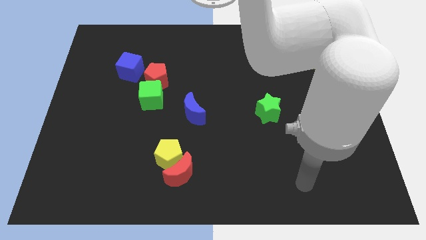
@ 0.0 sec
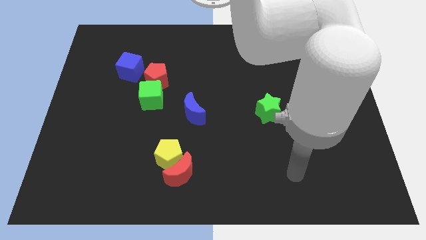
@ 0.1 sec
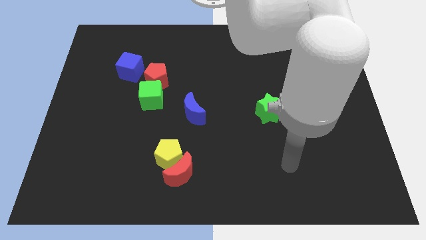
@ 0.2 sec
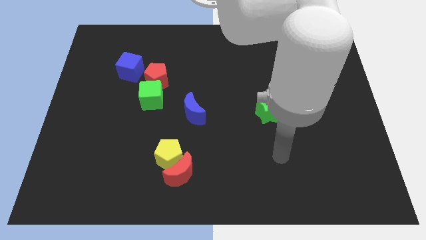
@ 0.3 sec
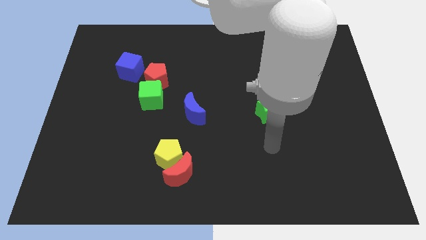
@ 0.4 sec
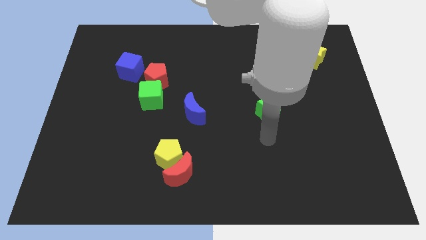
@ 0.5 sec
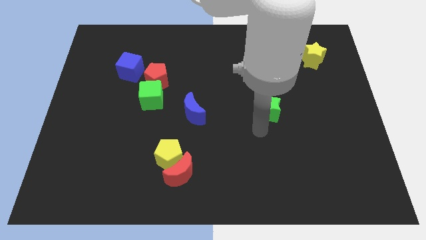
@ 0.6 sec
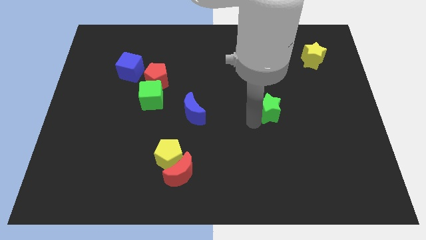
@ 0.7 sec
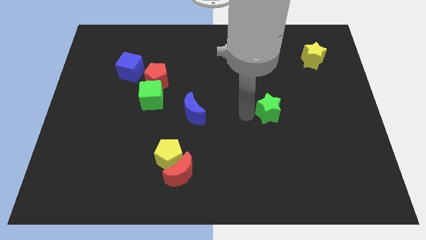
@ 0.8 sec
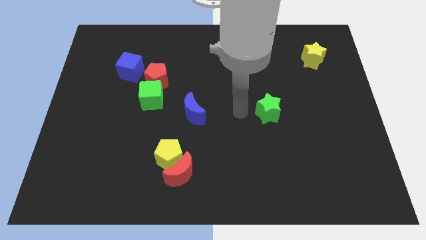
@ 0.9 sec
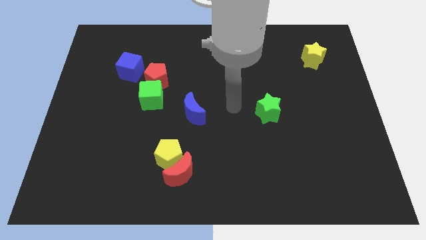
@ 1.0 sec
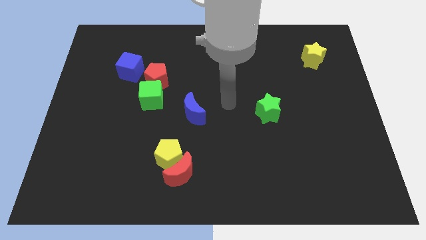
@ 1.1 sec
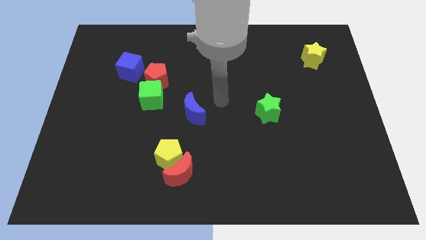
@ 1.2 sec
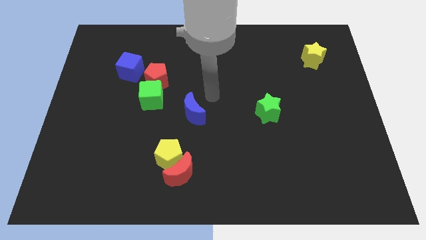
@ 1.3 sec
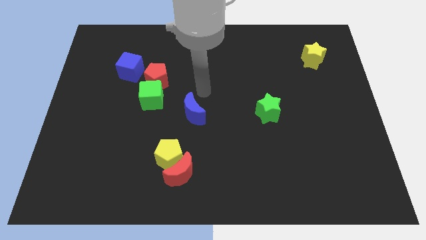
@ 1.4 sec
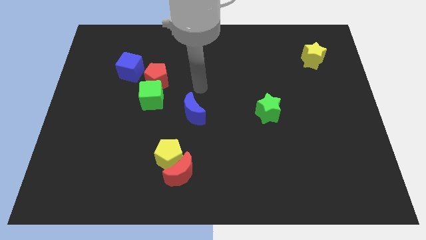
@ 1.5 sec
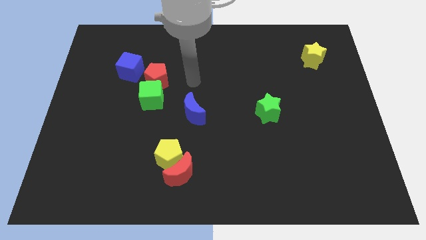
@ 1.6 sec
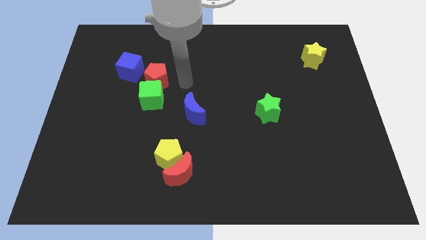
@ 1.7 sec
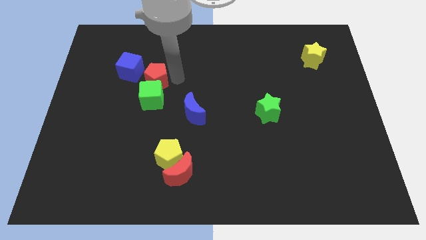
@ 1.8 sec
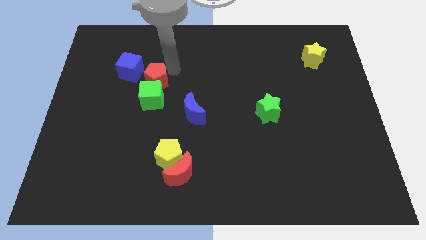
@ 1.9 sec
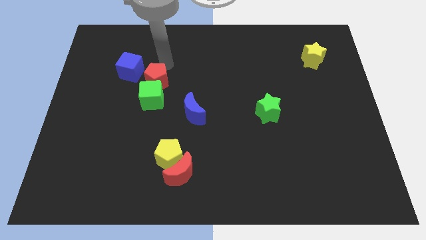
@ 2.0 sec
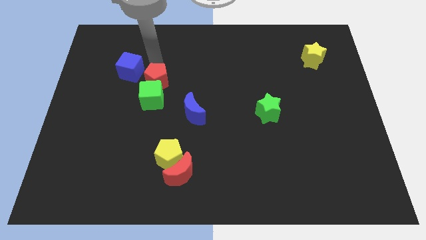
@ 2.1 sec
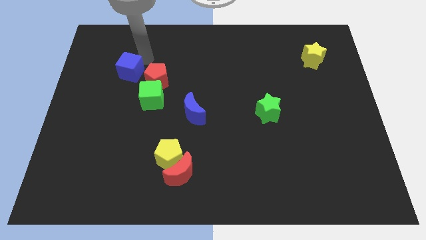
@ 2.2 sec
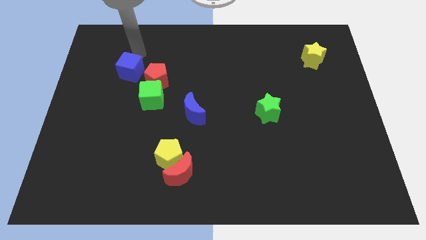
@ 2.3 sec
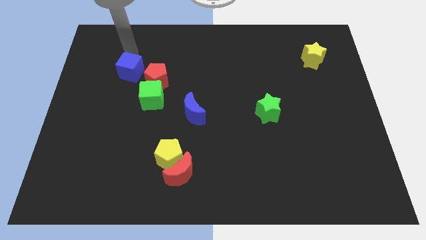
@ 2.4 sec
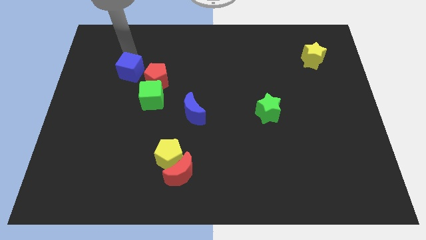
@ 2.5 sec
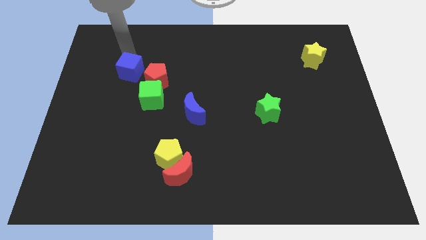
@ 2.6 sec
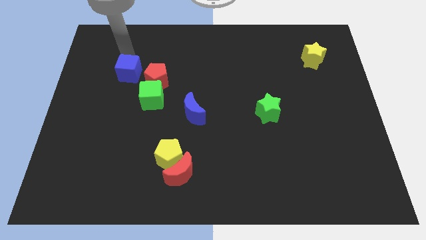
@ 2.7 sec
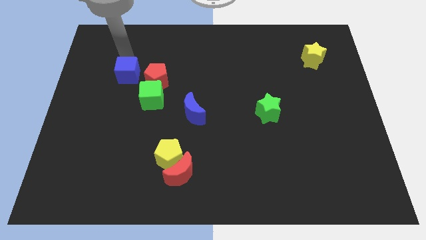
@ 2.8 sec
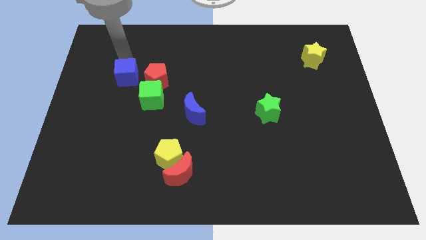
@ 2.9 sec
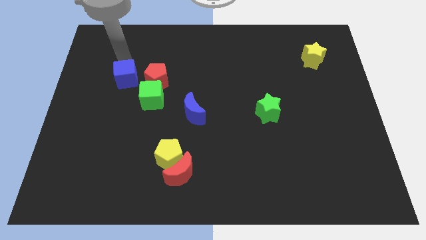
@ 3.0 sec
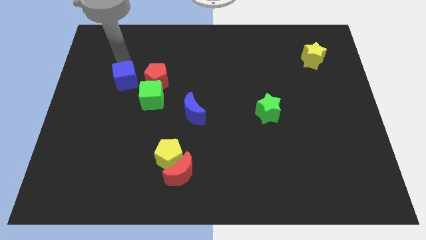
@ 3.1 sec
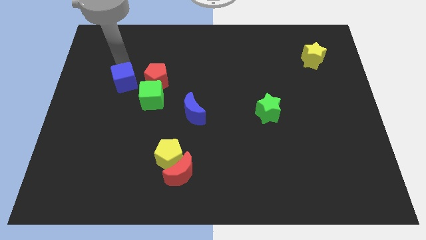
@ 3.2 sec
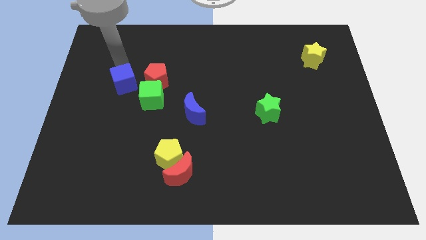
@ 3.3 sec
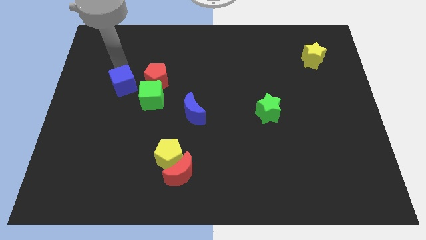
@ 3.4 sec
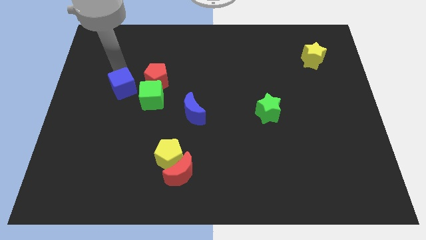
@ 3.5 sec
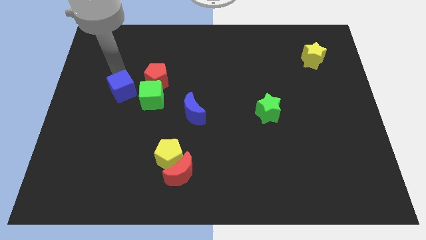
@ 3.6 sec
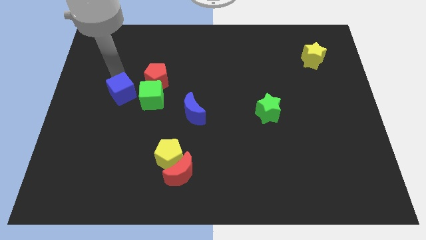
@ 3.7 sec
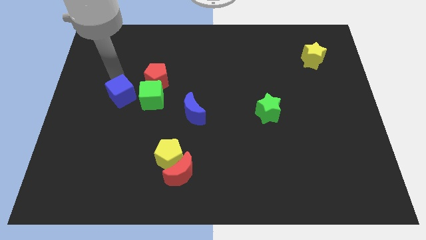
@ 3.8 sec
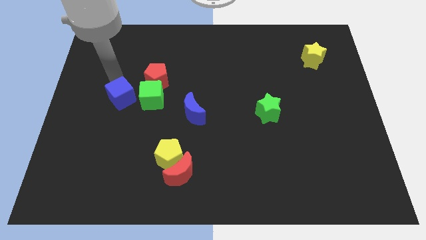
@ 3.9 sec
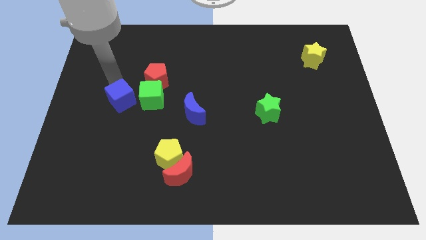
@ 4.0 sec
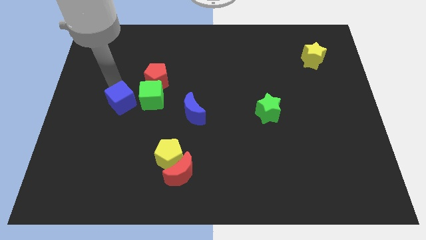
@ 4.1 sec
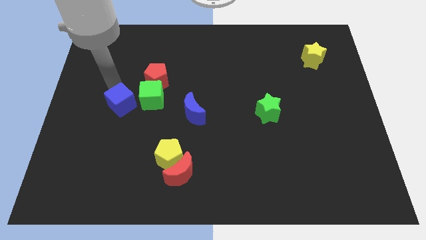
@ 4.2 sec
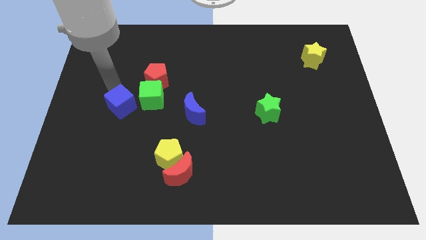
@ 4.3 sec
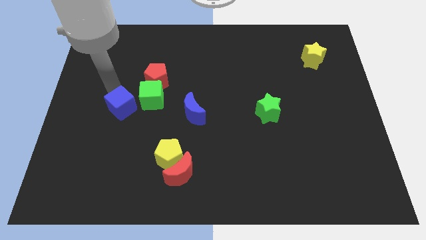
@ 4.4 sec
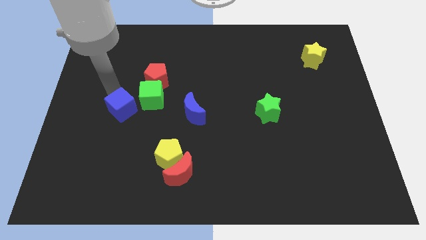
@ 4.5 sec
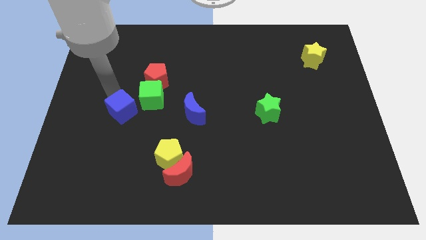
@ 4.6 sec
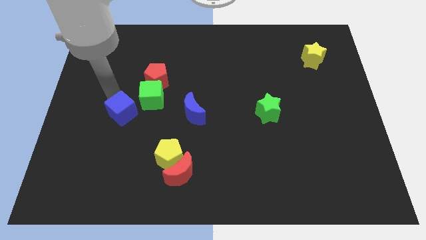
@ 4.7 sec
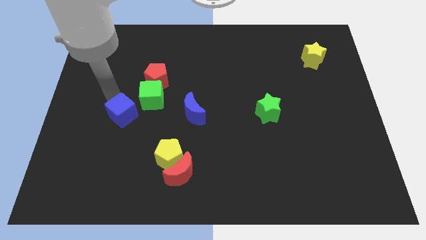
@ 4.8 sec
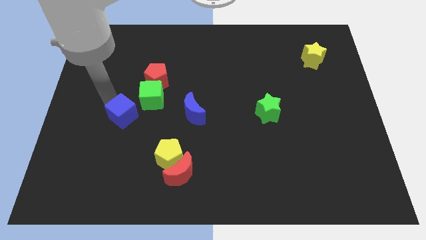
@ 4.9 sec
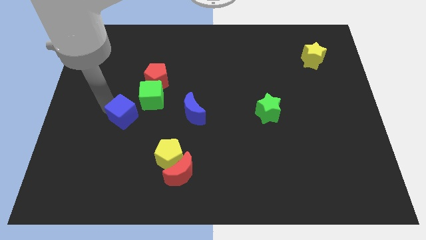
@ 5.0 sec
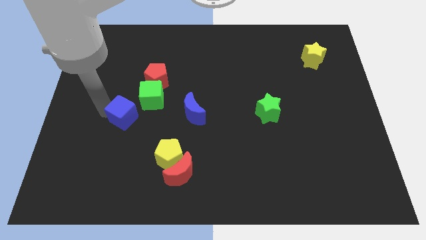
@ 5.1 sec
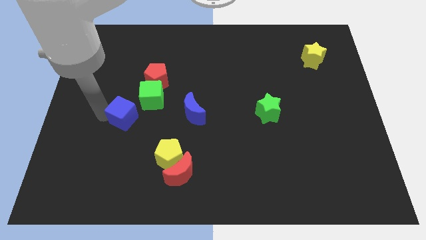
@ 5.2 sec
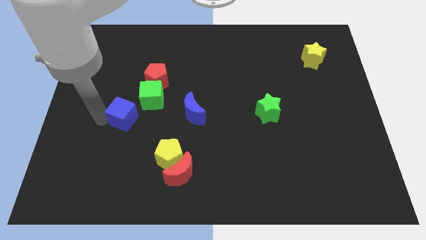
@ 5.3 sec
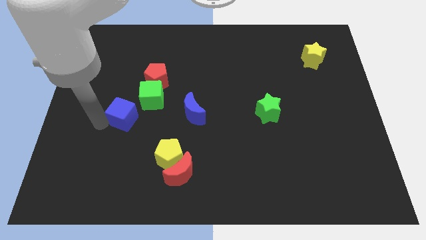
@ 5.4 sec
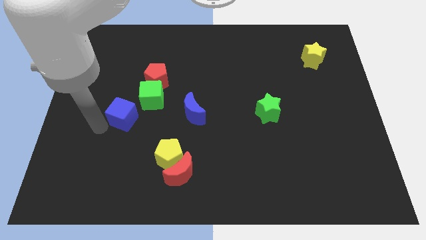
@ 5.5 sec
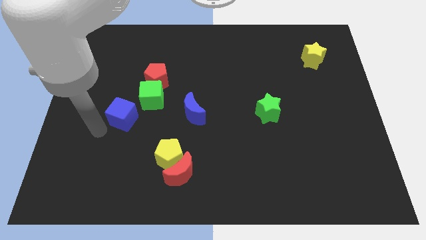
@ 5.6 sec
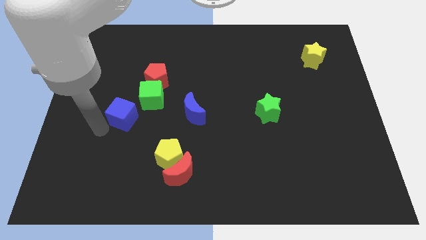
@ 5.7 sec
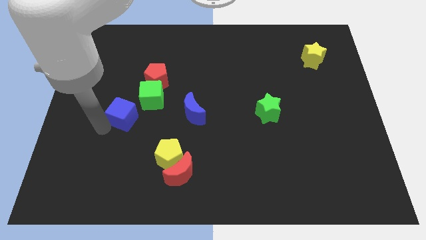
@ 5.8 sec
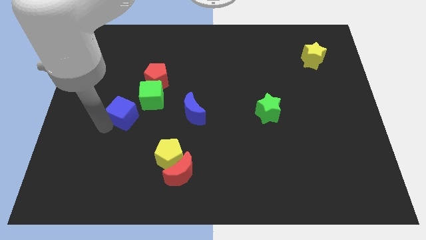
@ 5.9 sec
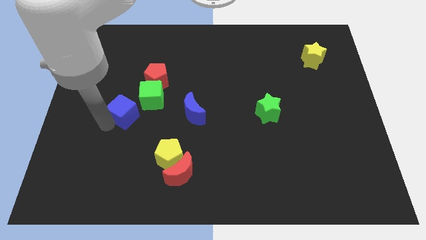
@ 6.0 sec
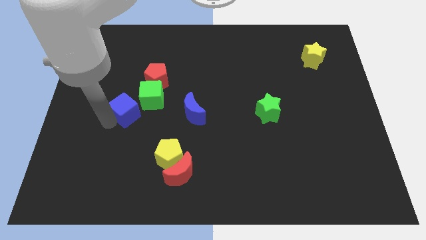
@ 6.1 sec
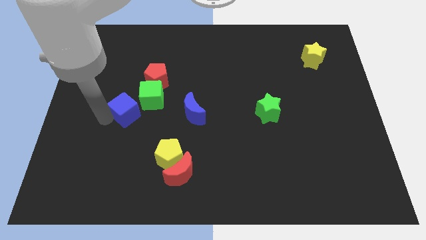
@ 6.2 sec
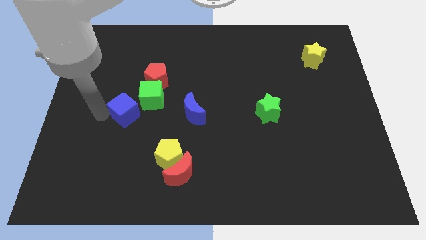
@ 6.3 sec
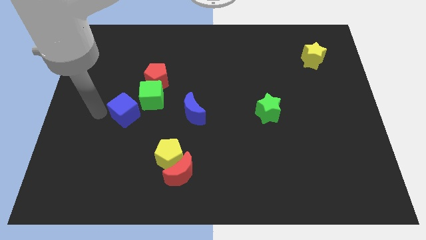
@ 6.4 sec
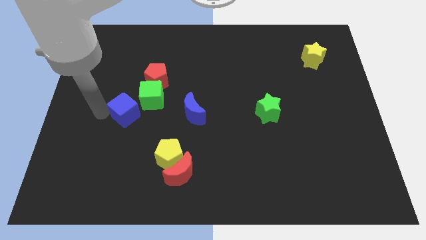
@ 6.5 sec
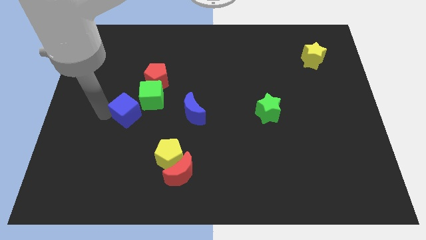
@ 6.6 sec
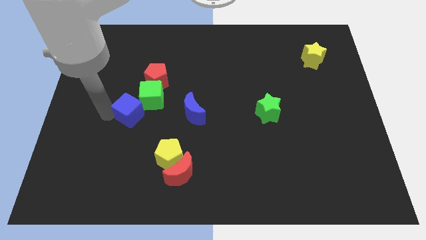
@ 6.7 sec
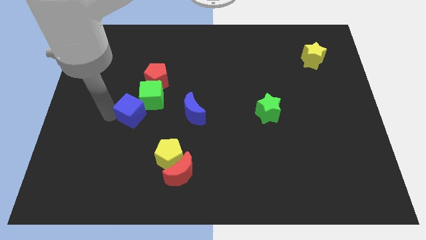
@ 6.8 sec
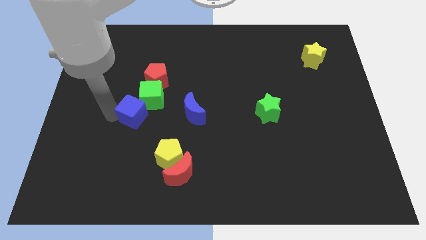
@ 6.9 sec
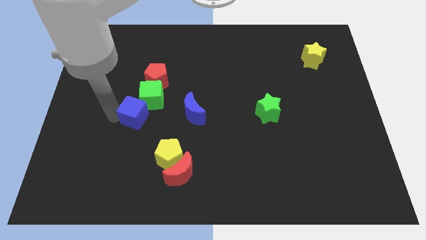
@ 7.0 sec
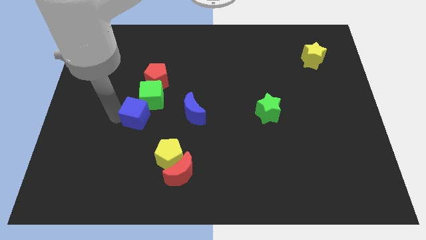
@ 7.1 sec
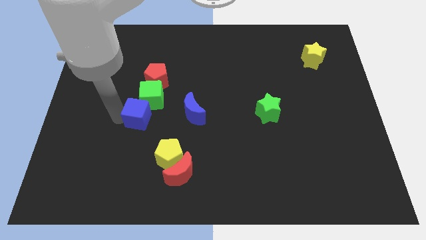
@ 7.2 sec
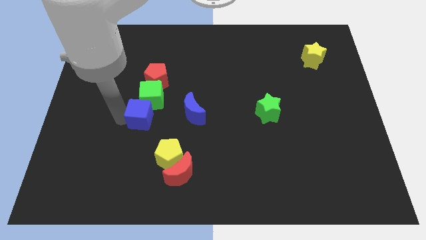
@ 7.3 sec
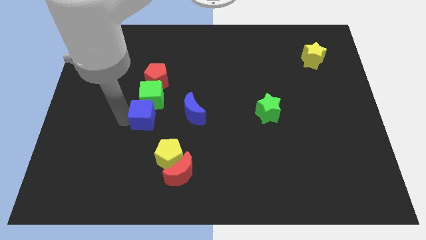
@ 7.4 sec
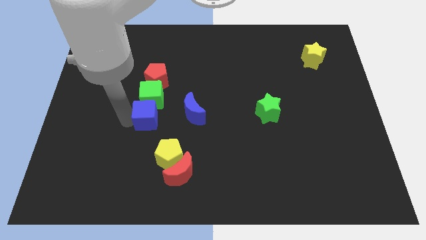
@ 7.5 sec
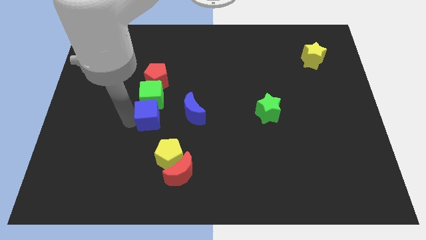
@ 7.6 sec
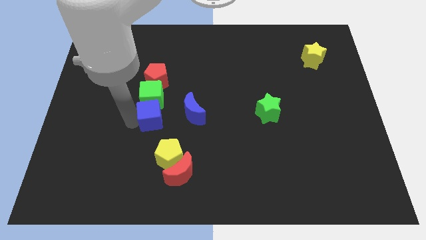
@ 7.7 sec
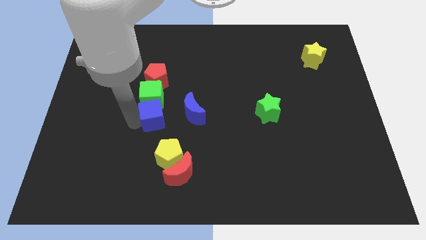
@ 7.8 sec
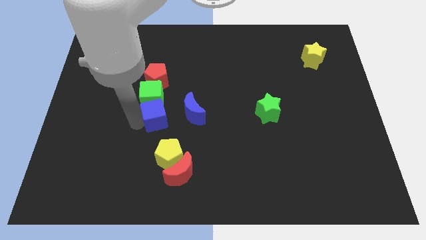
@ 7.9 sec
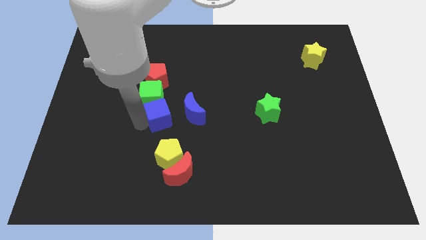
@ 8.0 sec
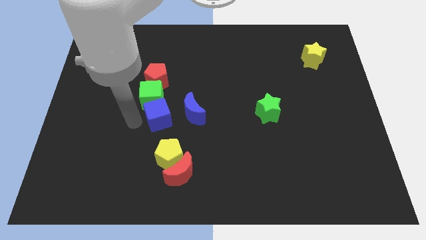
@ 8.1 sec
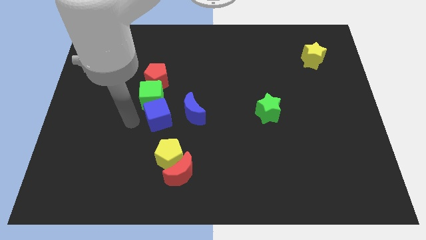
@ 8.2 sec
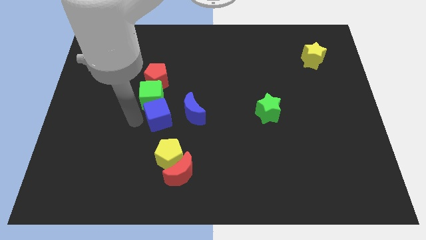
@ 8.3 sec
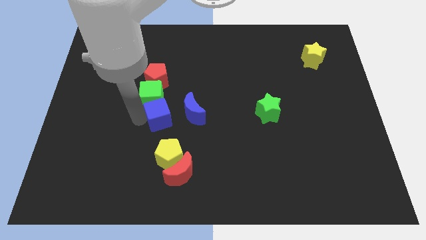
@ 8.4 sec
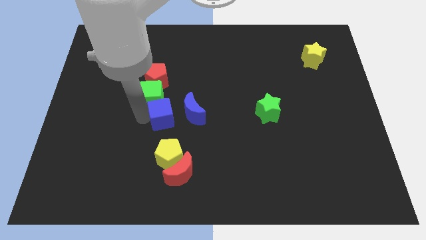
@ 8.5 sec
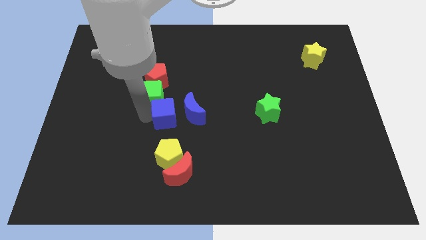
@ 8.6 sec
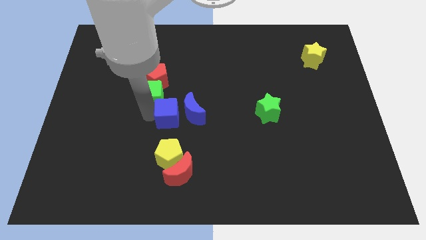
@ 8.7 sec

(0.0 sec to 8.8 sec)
put the blue cube next to the blue moon
